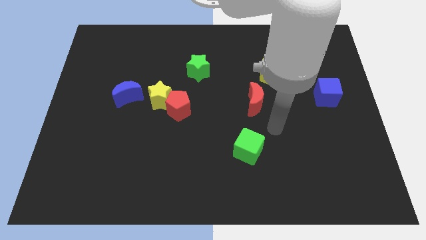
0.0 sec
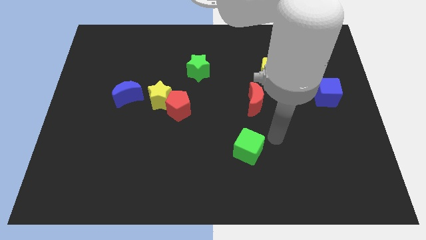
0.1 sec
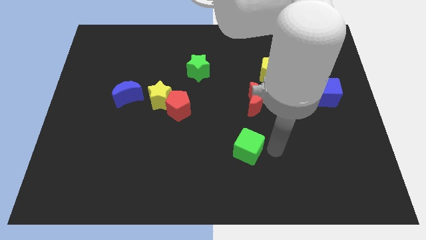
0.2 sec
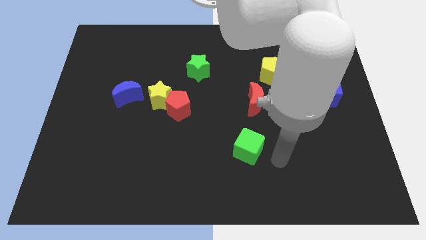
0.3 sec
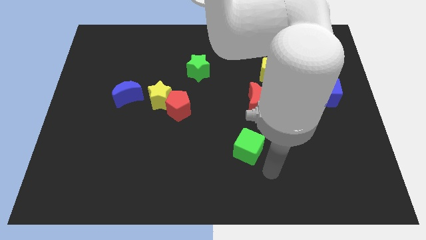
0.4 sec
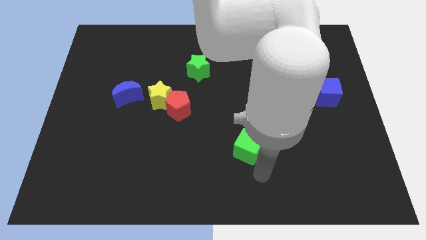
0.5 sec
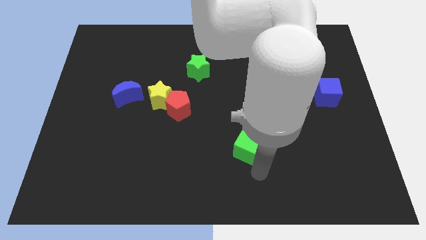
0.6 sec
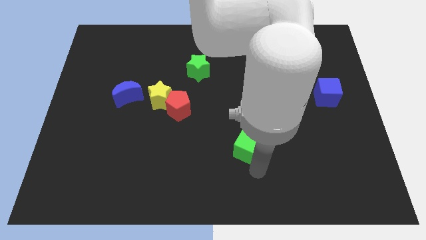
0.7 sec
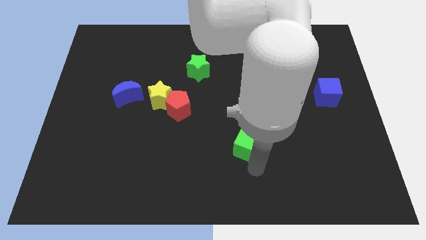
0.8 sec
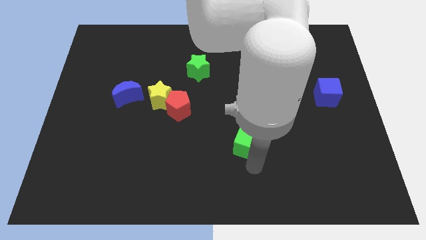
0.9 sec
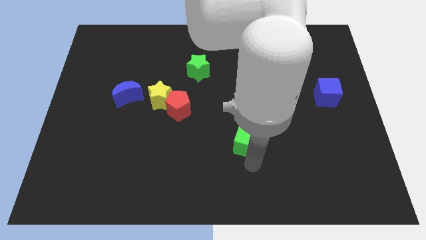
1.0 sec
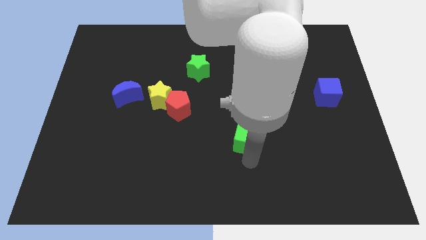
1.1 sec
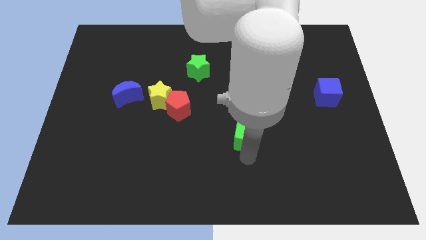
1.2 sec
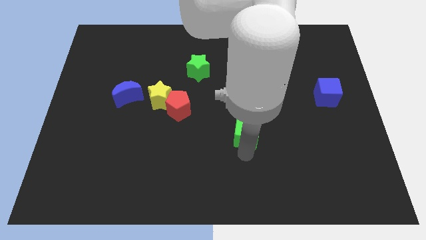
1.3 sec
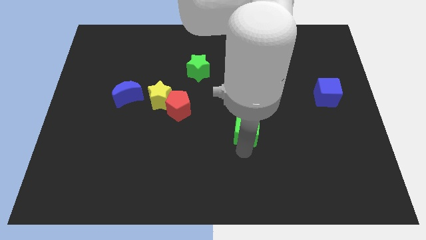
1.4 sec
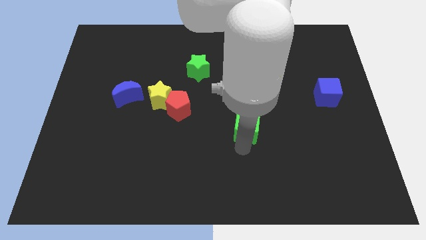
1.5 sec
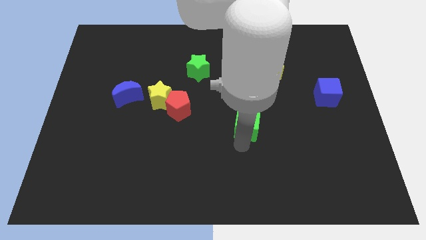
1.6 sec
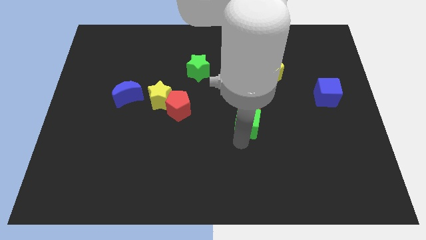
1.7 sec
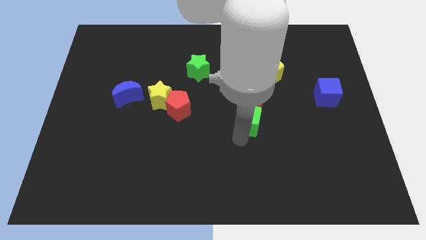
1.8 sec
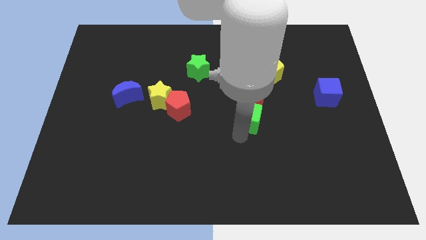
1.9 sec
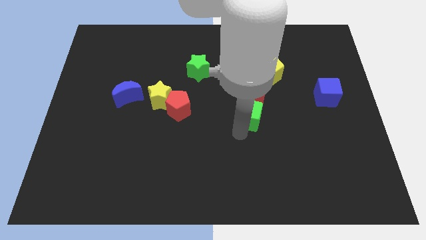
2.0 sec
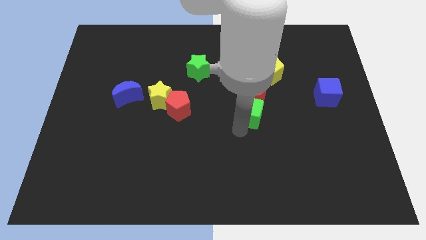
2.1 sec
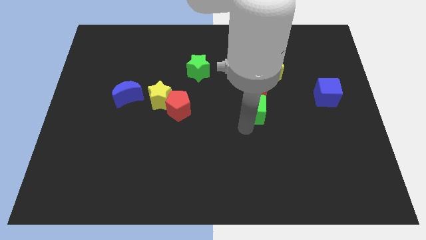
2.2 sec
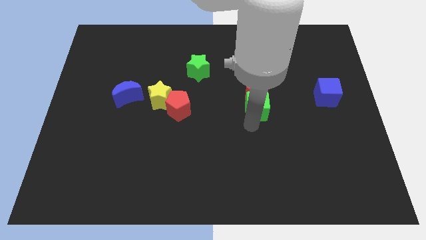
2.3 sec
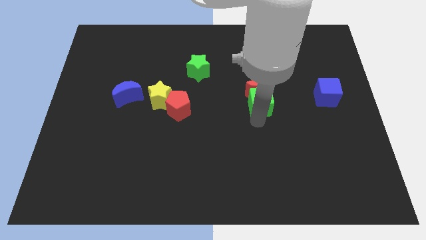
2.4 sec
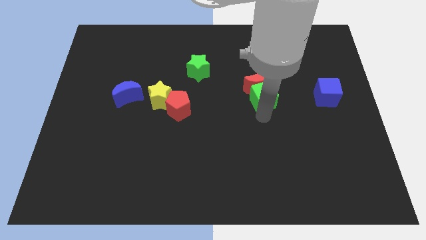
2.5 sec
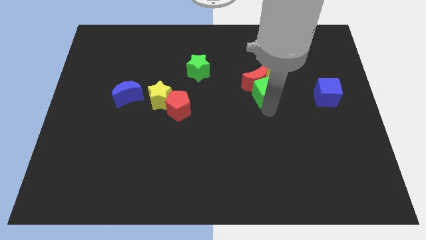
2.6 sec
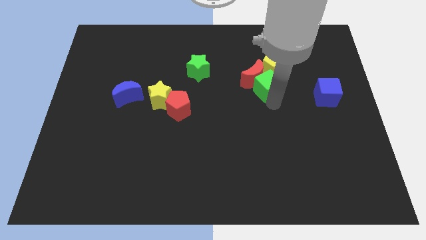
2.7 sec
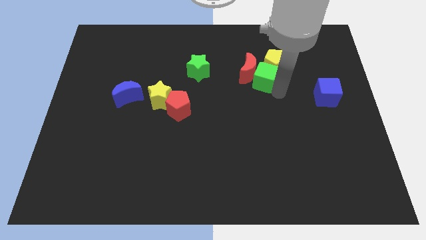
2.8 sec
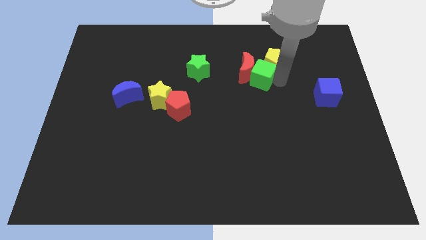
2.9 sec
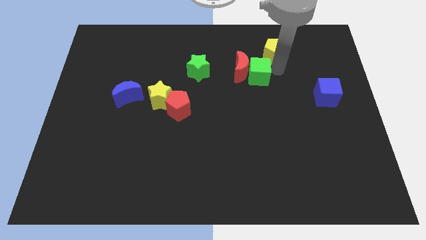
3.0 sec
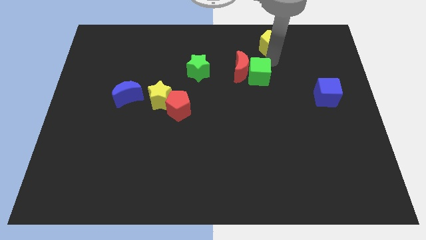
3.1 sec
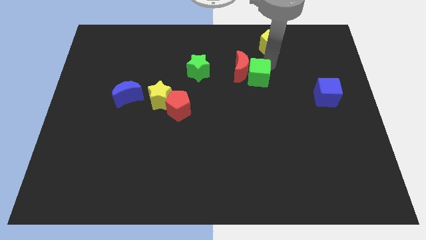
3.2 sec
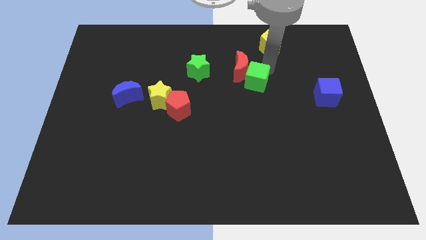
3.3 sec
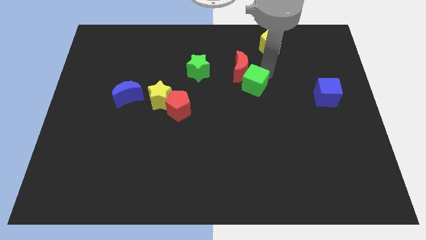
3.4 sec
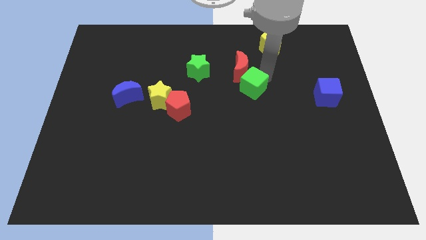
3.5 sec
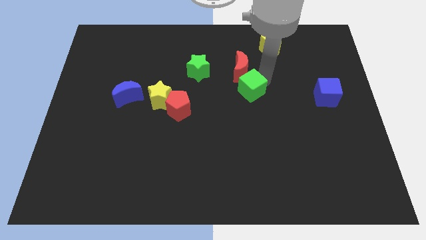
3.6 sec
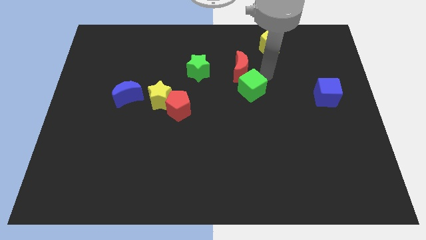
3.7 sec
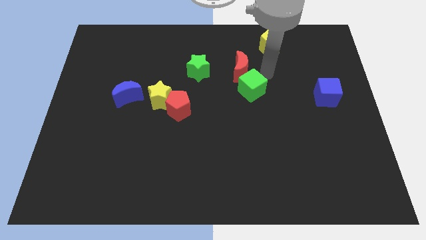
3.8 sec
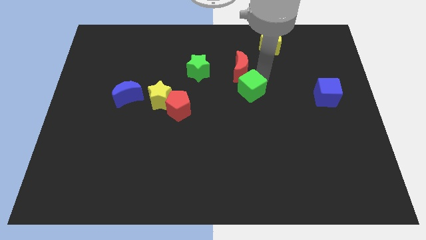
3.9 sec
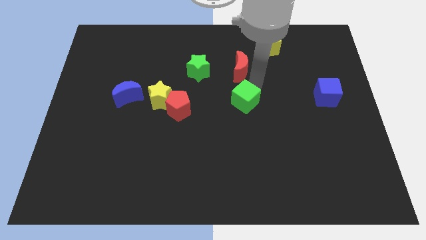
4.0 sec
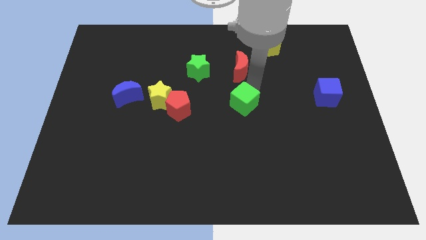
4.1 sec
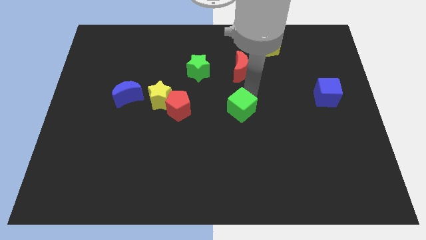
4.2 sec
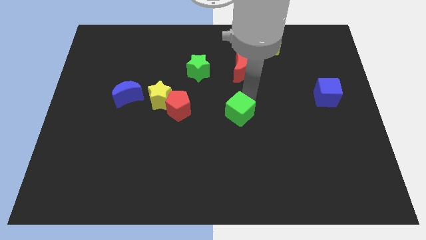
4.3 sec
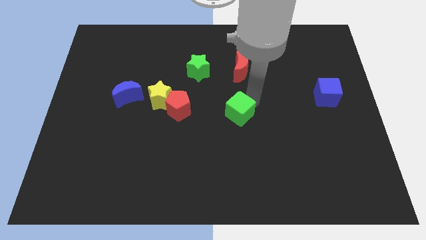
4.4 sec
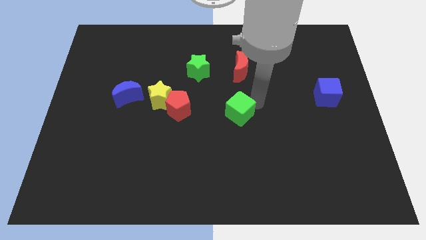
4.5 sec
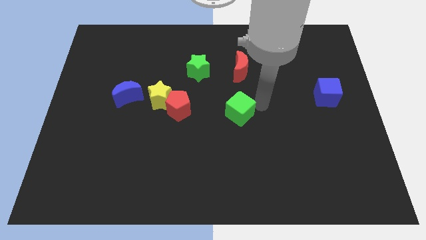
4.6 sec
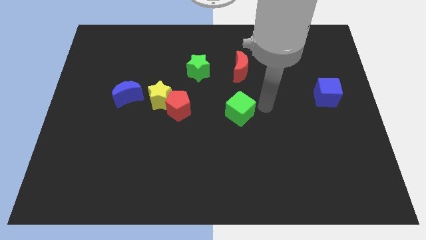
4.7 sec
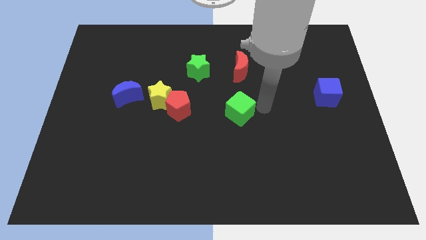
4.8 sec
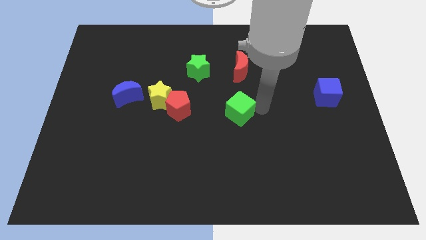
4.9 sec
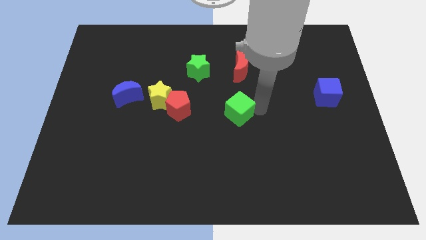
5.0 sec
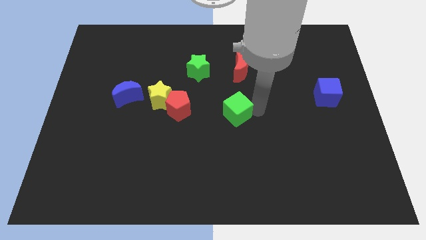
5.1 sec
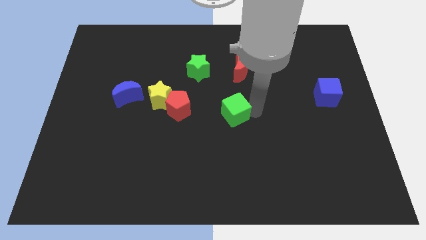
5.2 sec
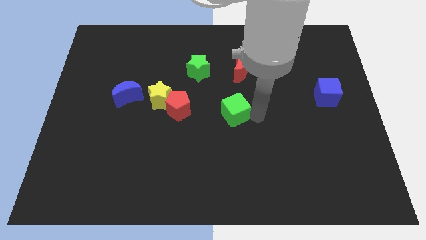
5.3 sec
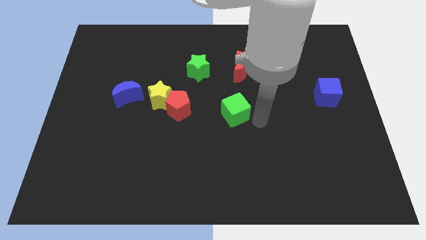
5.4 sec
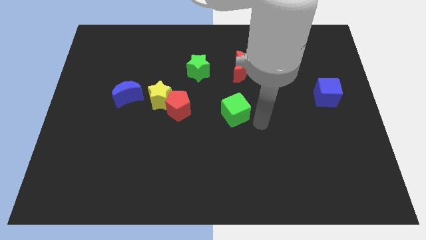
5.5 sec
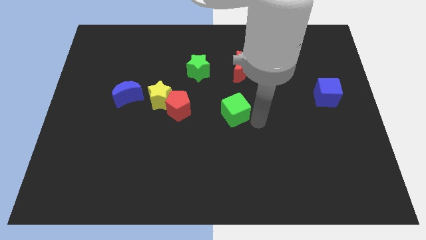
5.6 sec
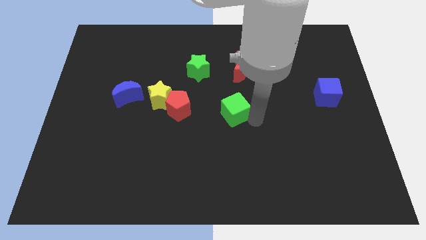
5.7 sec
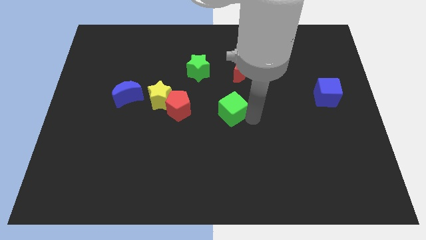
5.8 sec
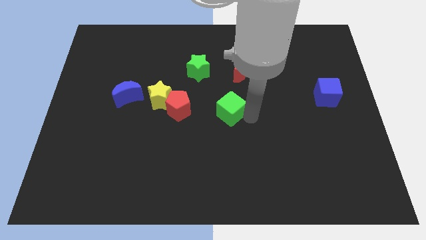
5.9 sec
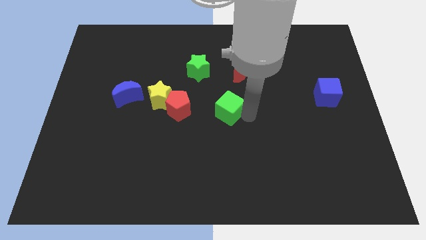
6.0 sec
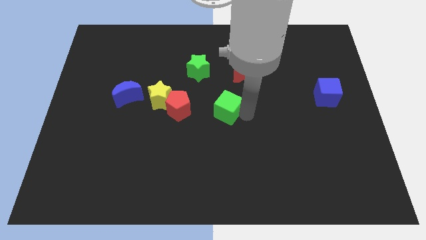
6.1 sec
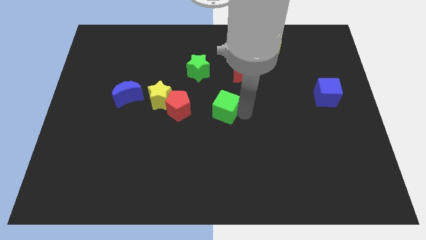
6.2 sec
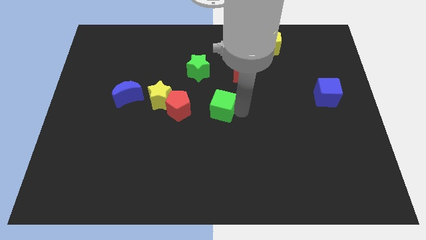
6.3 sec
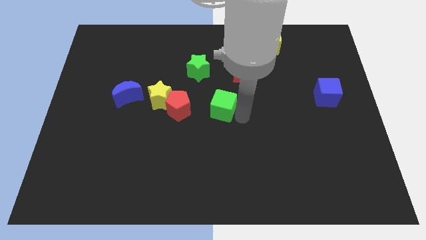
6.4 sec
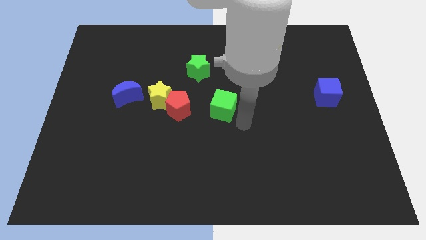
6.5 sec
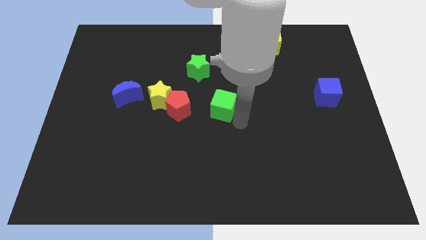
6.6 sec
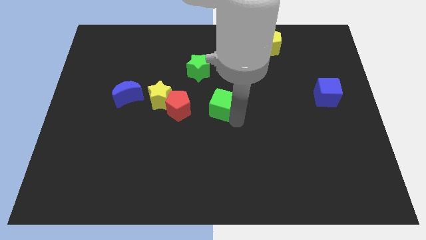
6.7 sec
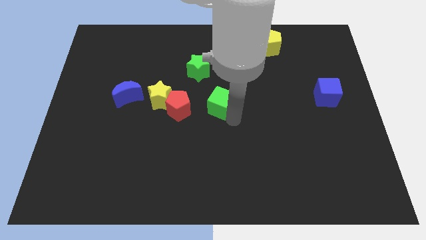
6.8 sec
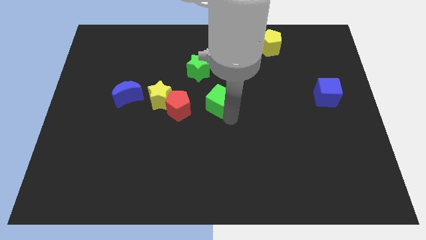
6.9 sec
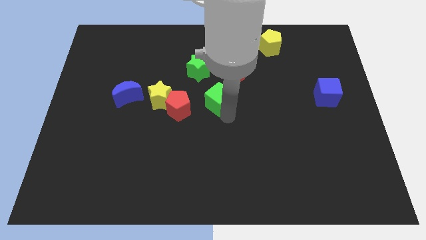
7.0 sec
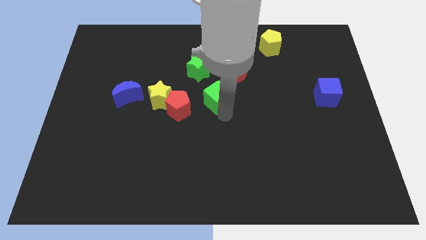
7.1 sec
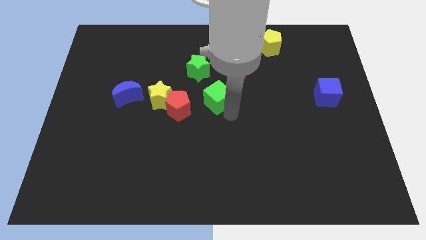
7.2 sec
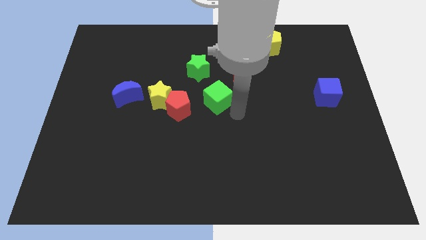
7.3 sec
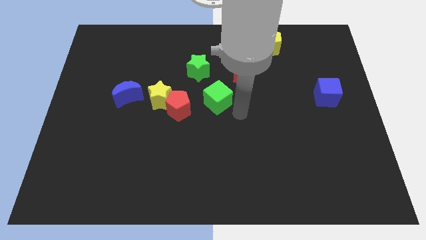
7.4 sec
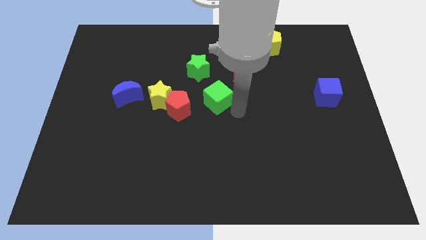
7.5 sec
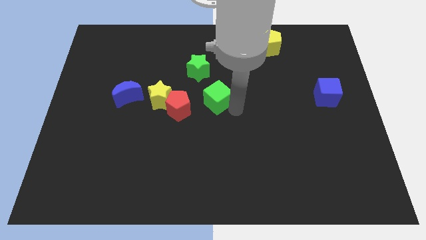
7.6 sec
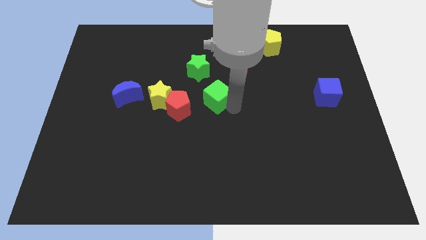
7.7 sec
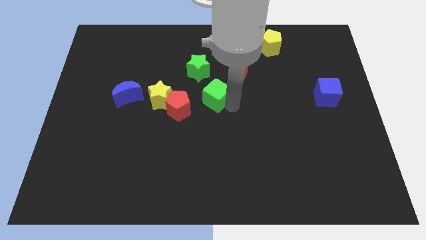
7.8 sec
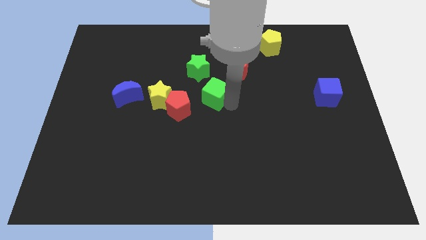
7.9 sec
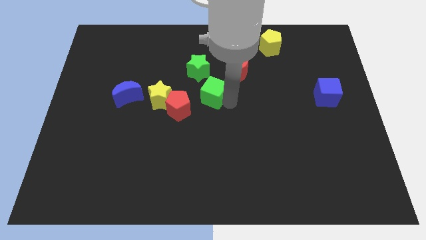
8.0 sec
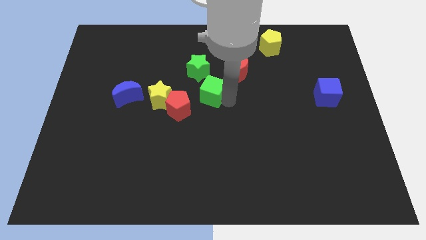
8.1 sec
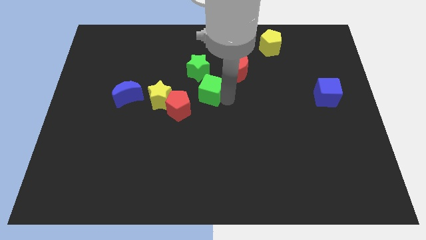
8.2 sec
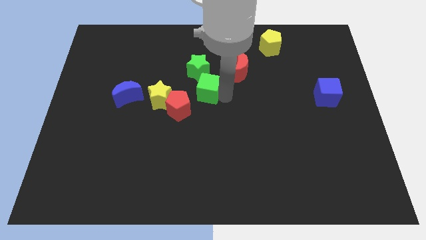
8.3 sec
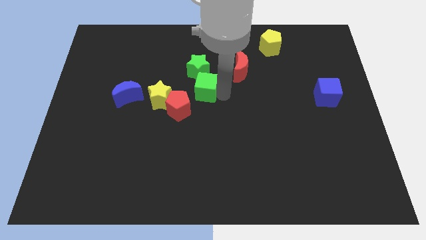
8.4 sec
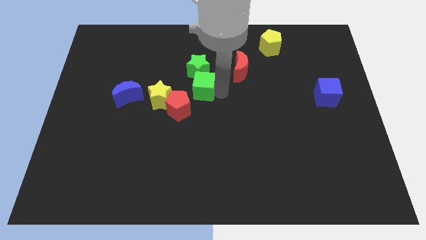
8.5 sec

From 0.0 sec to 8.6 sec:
push the green cube close to the green star
